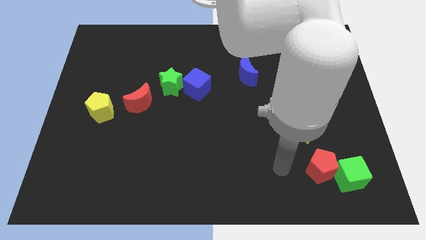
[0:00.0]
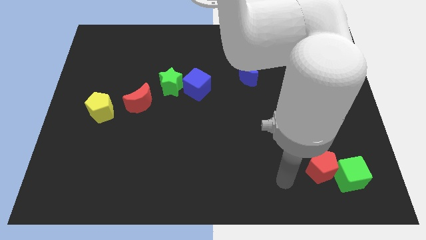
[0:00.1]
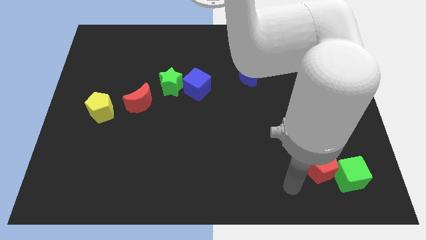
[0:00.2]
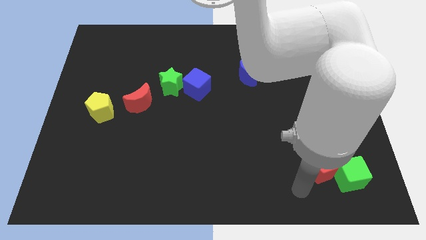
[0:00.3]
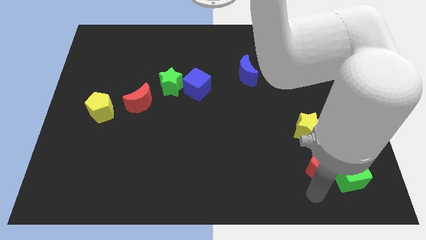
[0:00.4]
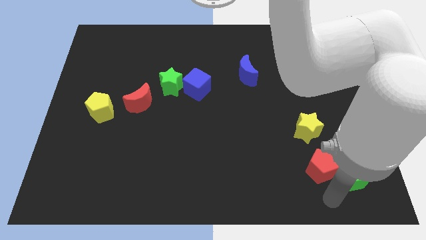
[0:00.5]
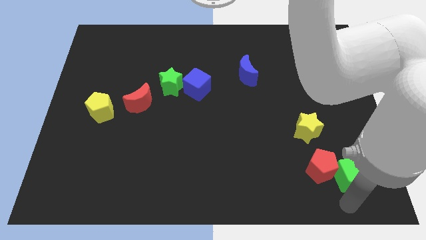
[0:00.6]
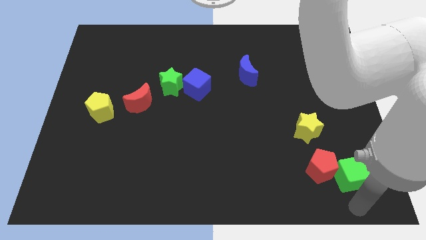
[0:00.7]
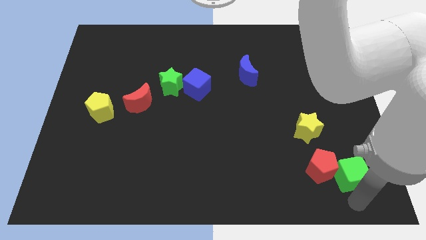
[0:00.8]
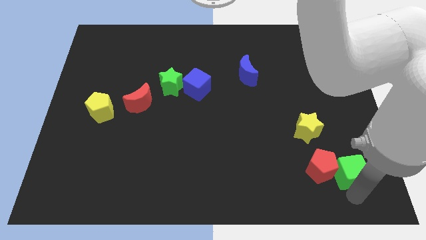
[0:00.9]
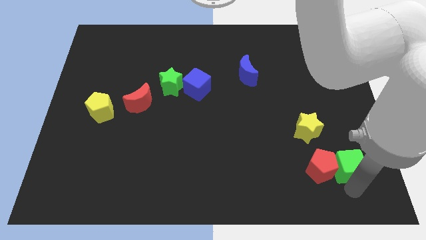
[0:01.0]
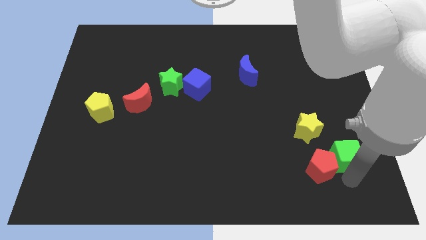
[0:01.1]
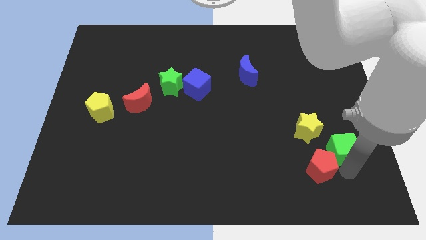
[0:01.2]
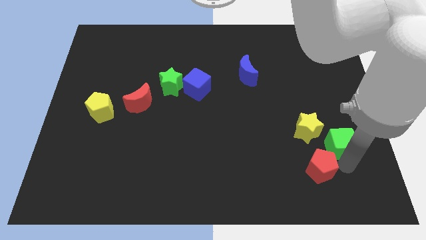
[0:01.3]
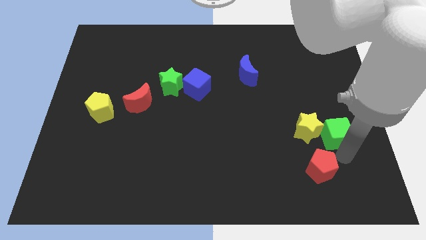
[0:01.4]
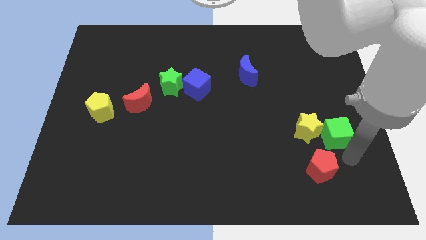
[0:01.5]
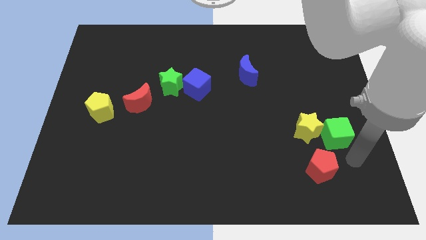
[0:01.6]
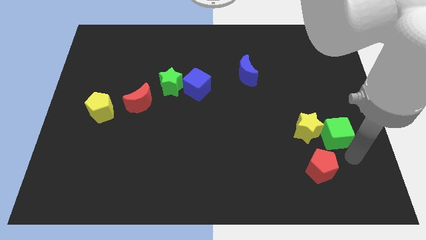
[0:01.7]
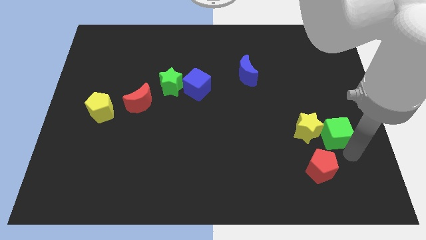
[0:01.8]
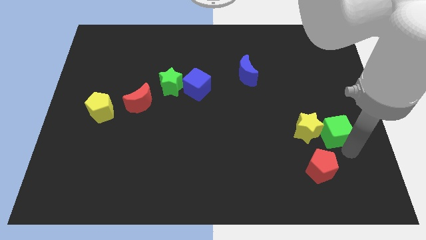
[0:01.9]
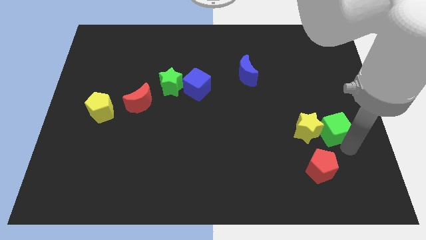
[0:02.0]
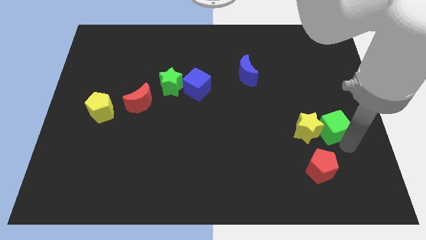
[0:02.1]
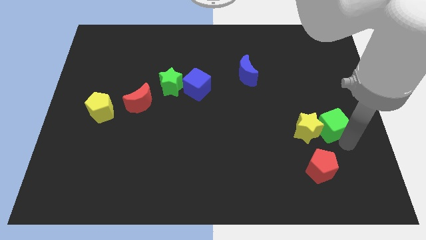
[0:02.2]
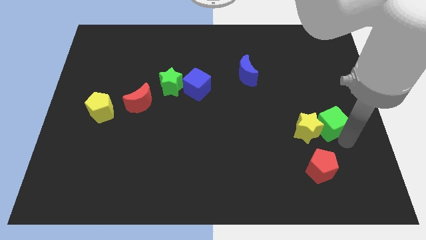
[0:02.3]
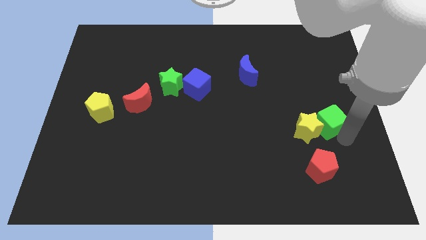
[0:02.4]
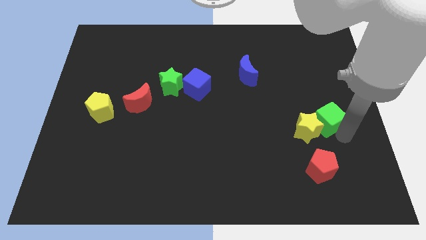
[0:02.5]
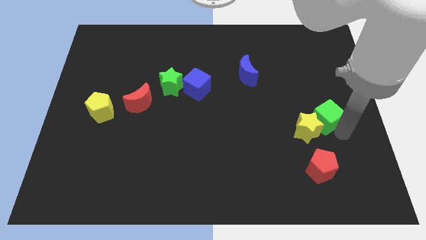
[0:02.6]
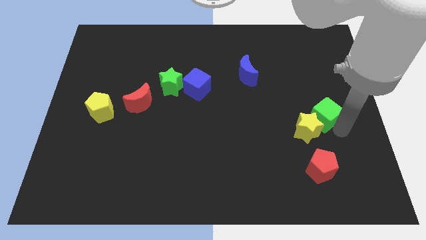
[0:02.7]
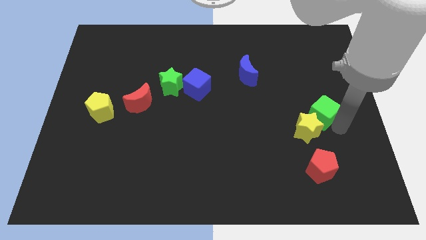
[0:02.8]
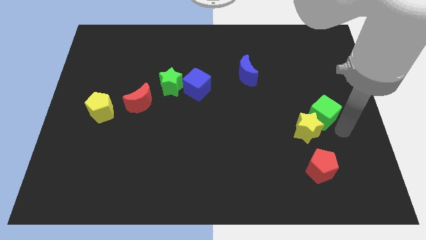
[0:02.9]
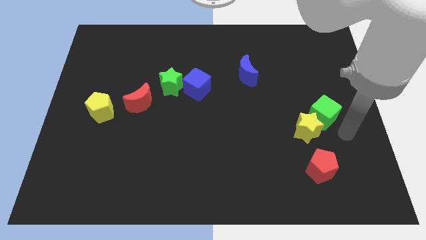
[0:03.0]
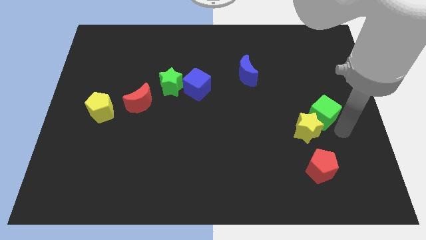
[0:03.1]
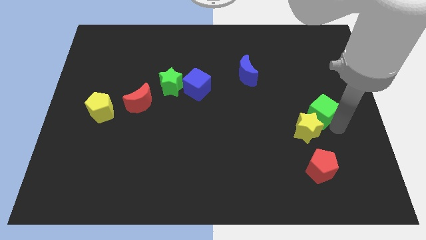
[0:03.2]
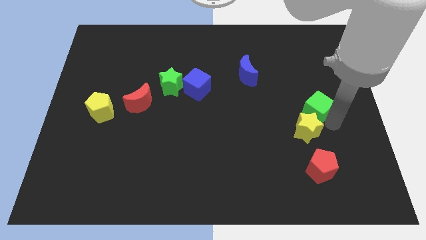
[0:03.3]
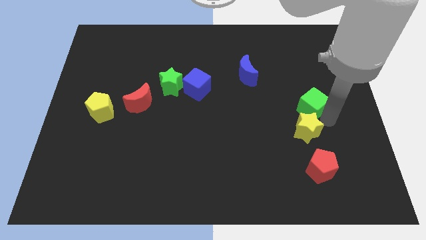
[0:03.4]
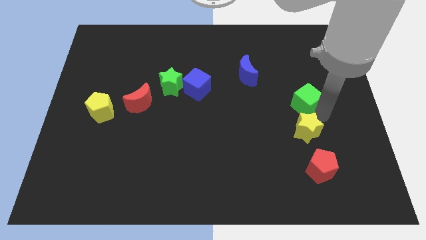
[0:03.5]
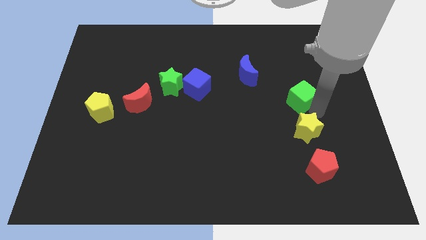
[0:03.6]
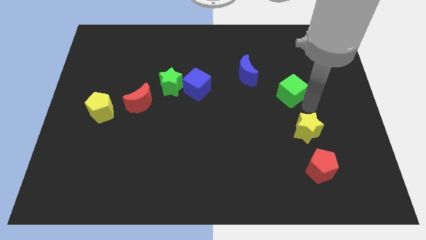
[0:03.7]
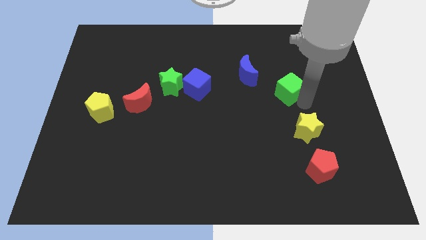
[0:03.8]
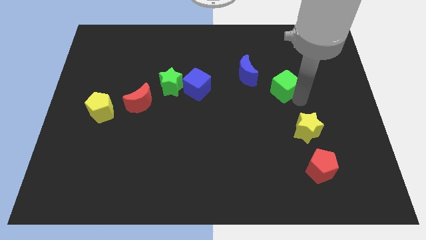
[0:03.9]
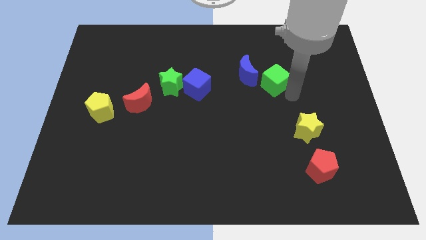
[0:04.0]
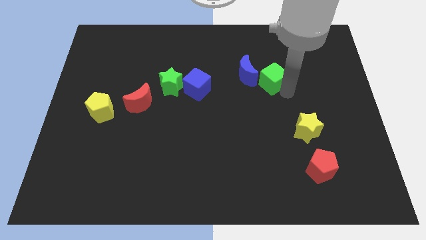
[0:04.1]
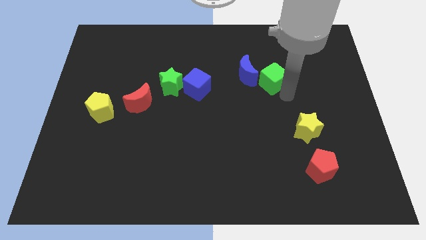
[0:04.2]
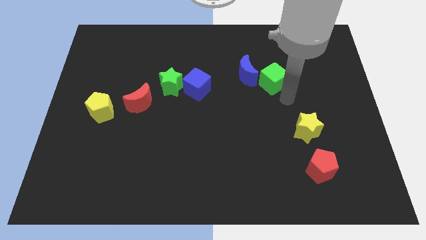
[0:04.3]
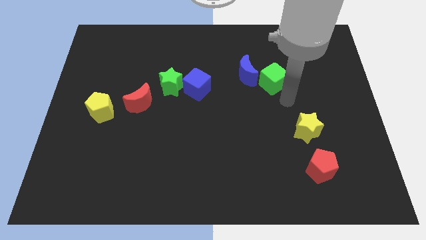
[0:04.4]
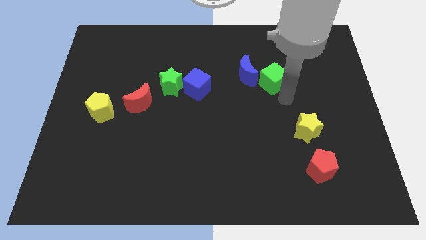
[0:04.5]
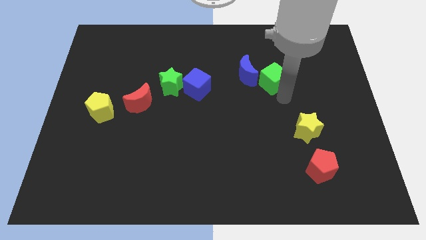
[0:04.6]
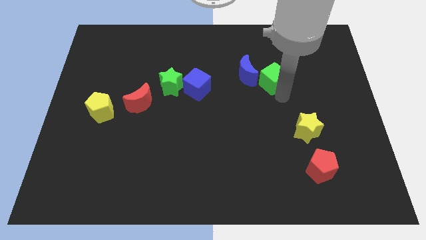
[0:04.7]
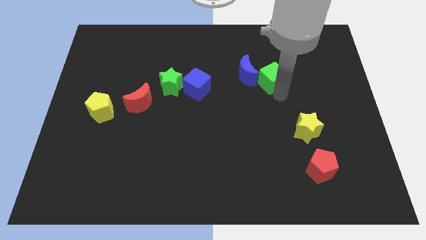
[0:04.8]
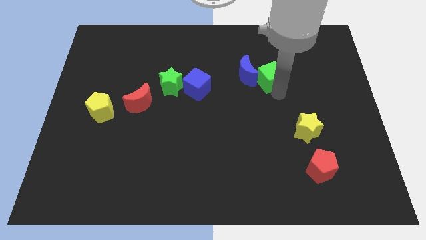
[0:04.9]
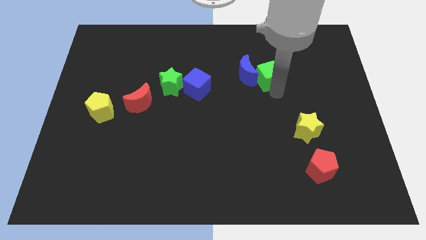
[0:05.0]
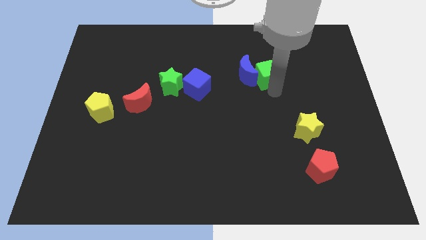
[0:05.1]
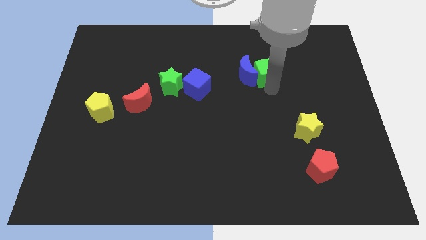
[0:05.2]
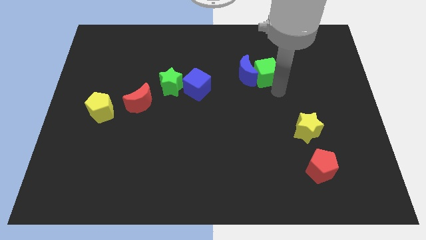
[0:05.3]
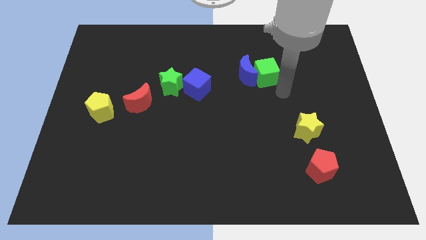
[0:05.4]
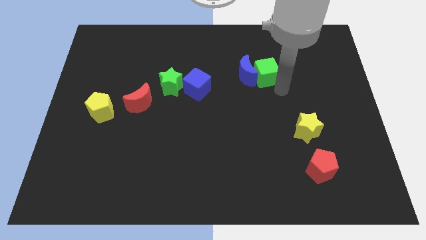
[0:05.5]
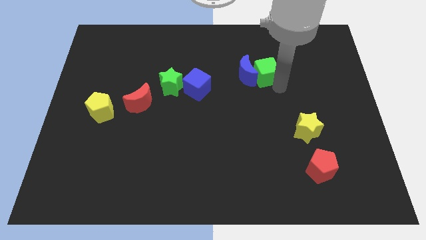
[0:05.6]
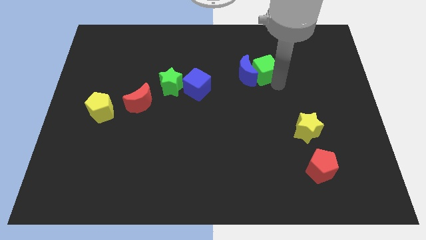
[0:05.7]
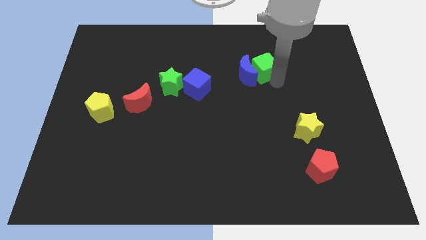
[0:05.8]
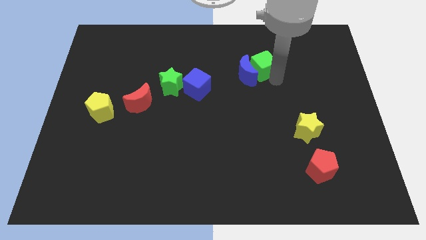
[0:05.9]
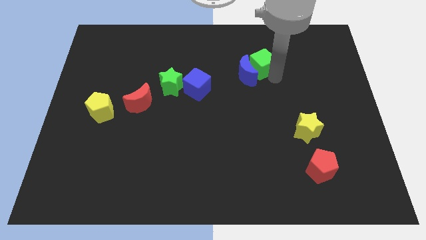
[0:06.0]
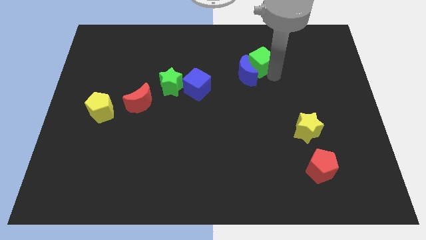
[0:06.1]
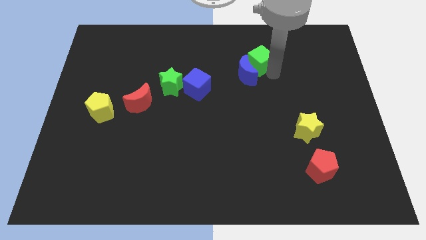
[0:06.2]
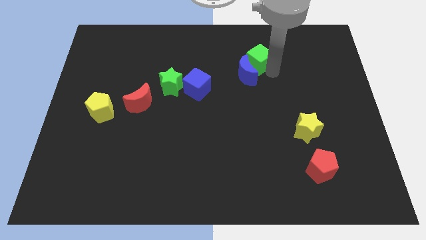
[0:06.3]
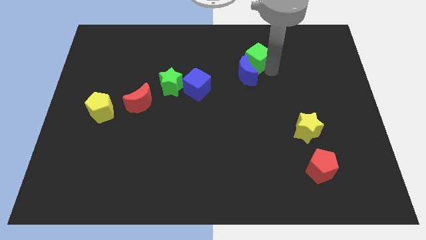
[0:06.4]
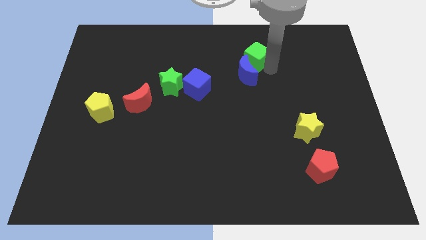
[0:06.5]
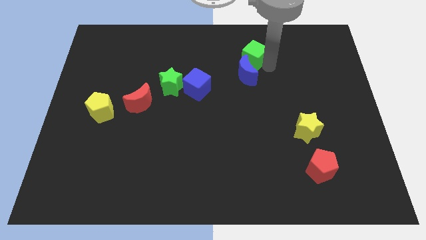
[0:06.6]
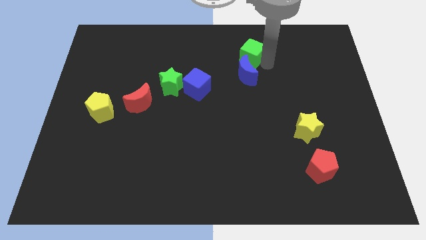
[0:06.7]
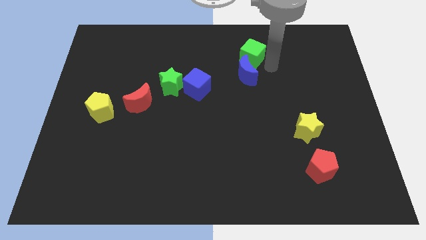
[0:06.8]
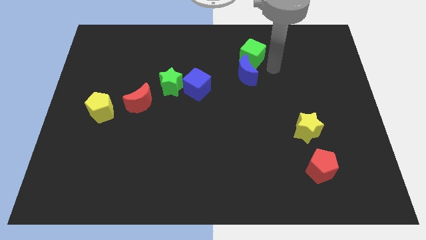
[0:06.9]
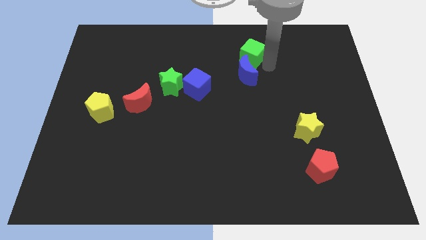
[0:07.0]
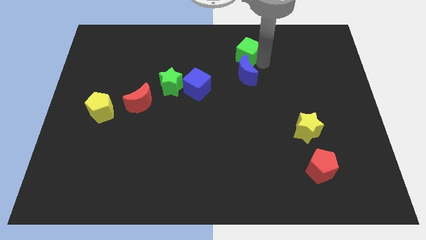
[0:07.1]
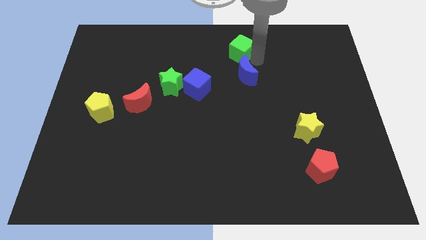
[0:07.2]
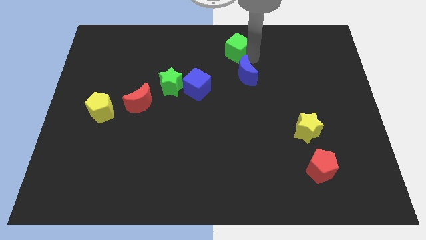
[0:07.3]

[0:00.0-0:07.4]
move the green cube to the top
